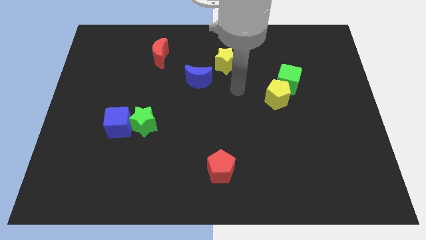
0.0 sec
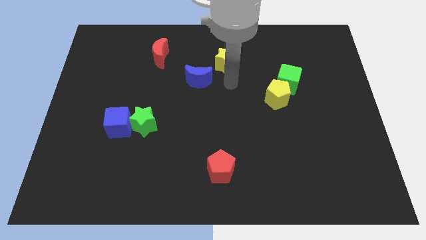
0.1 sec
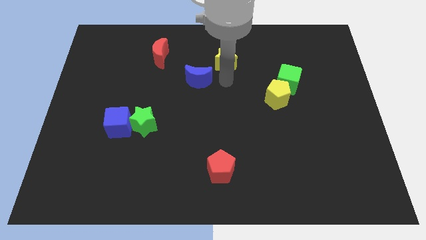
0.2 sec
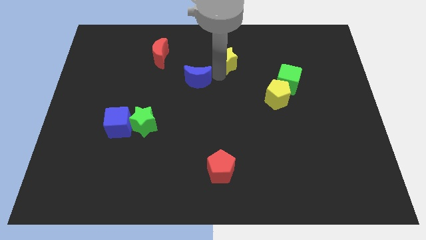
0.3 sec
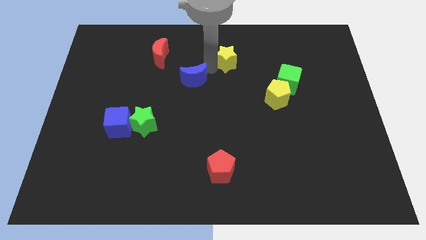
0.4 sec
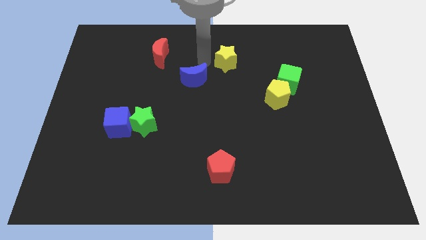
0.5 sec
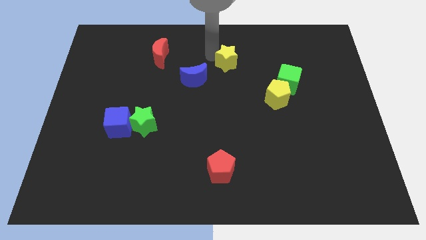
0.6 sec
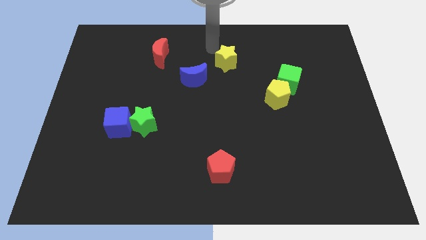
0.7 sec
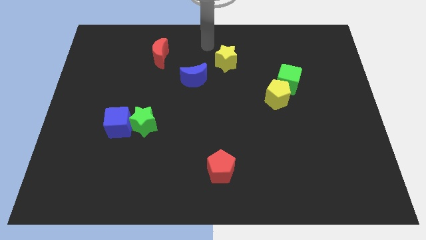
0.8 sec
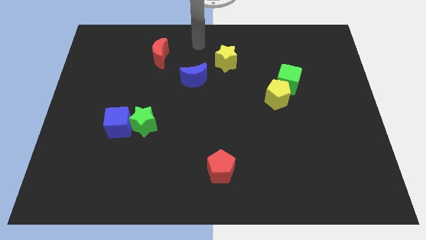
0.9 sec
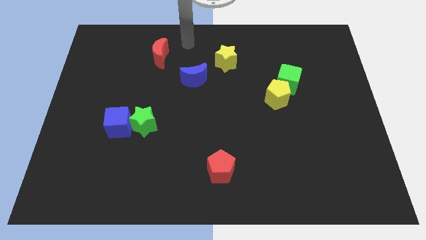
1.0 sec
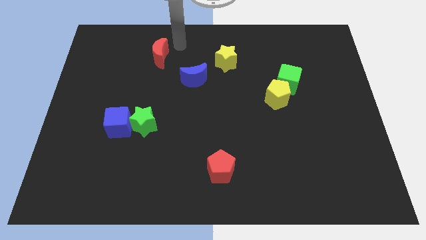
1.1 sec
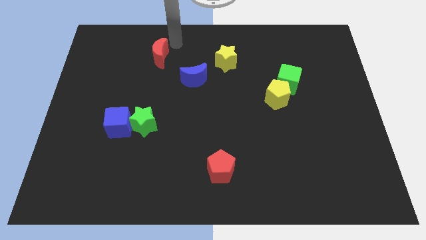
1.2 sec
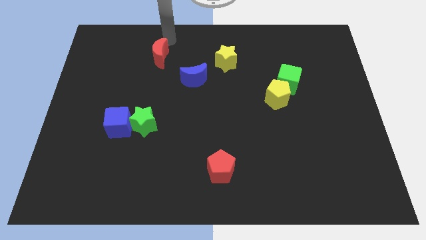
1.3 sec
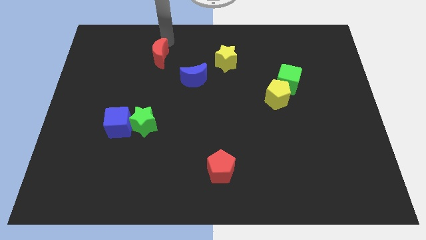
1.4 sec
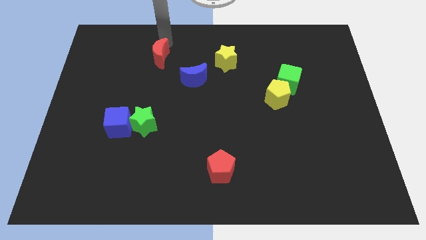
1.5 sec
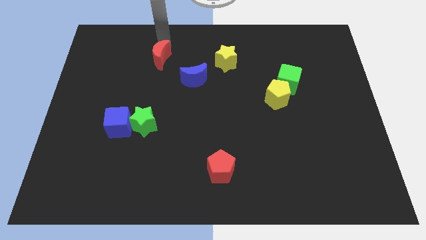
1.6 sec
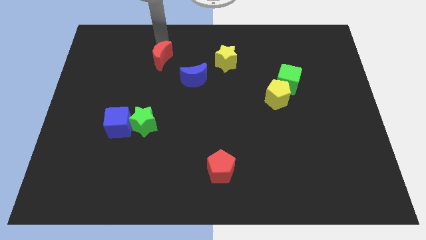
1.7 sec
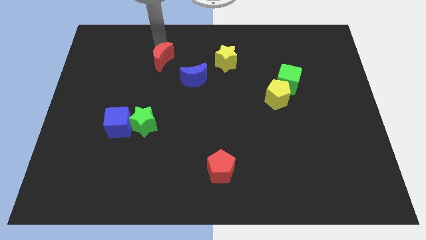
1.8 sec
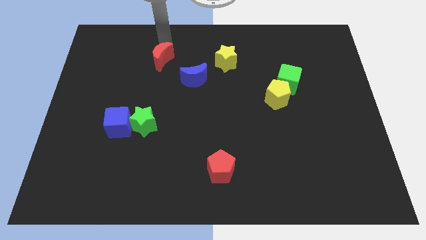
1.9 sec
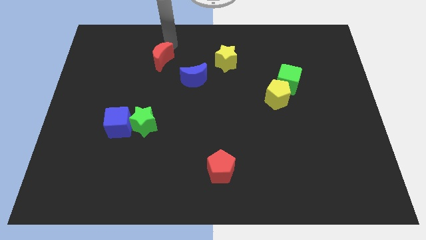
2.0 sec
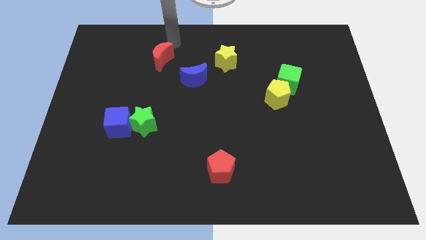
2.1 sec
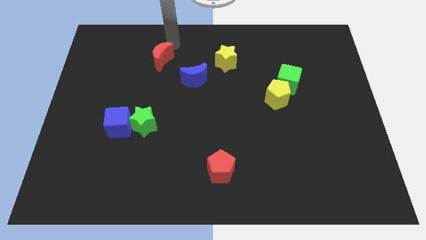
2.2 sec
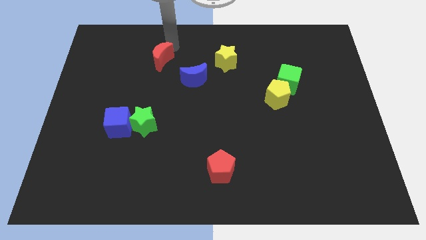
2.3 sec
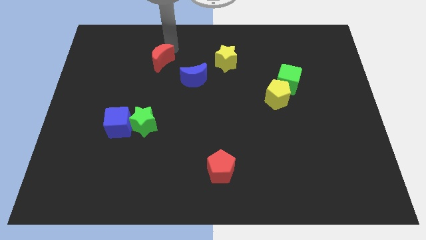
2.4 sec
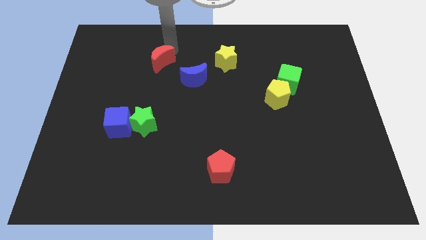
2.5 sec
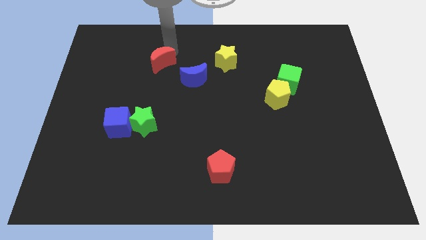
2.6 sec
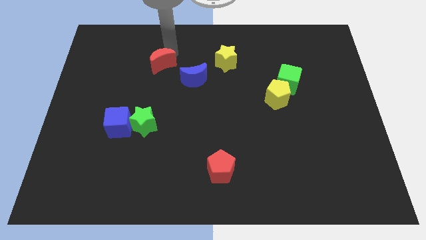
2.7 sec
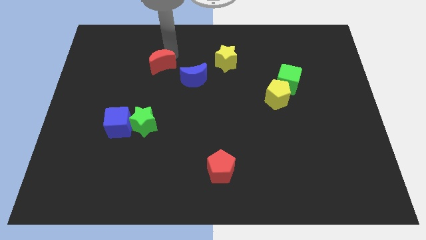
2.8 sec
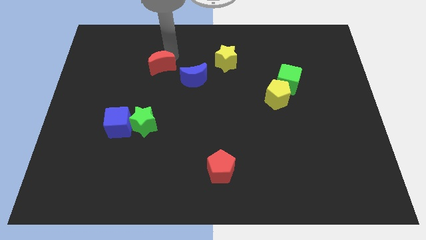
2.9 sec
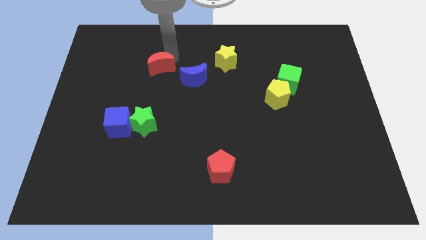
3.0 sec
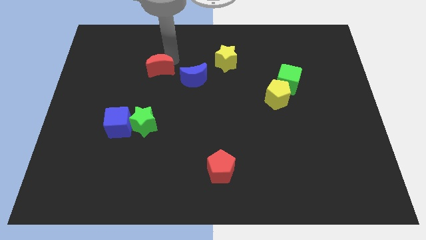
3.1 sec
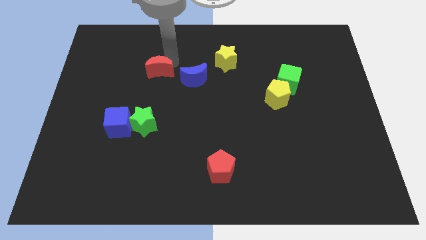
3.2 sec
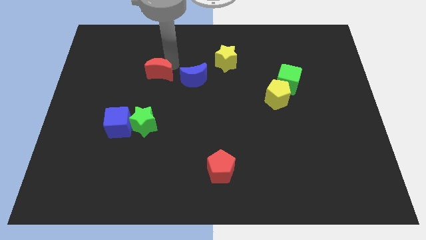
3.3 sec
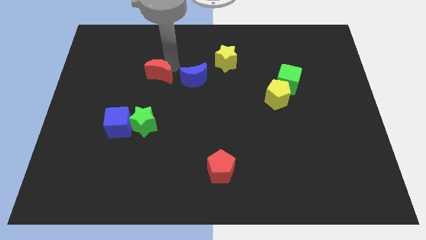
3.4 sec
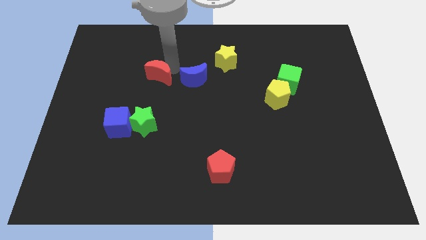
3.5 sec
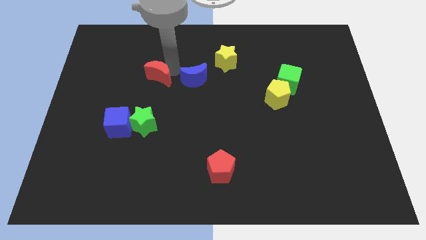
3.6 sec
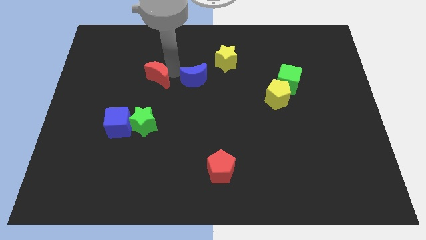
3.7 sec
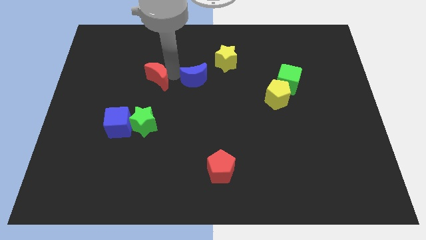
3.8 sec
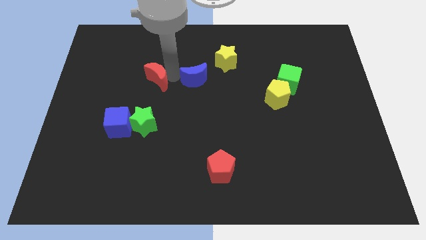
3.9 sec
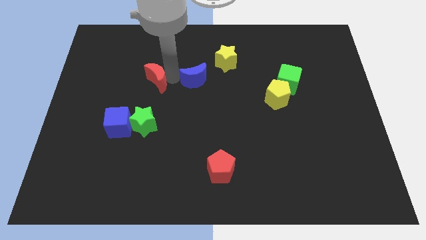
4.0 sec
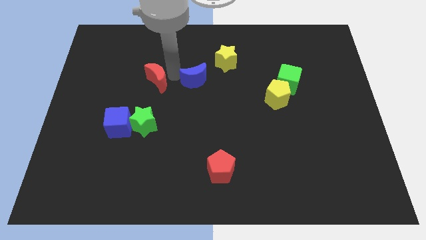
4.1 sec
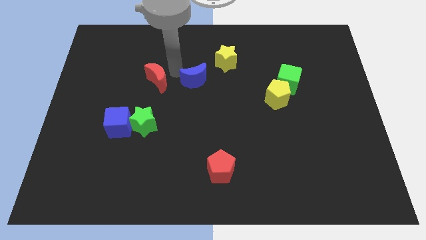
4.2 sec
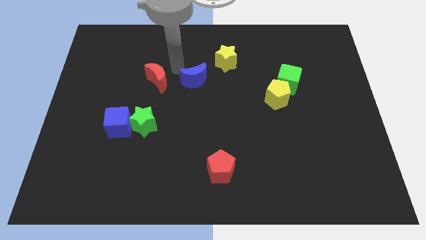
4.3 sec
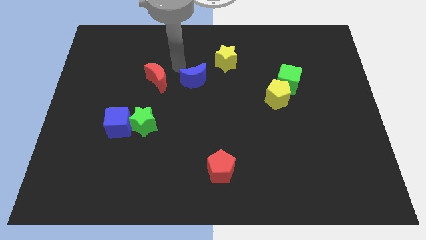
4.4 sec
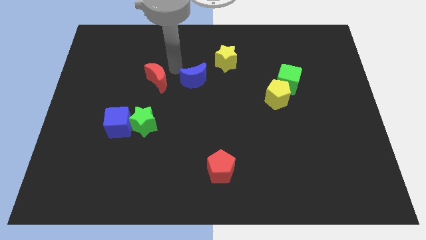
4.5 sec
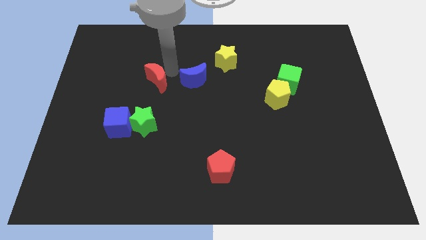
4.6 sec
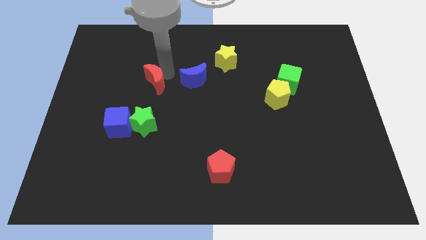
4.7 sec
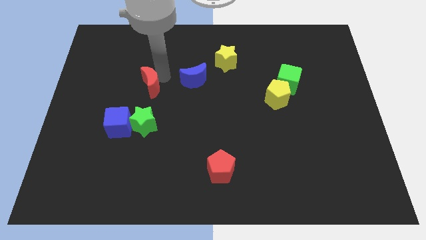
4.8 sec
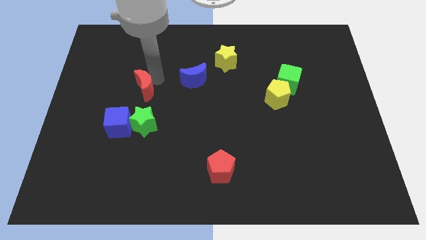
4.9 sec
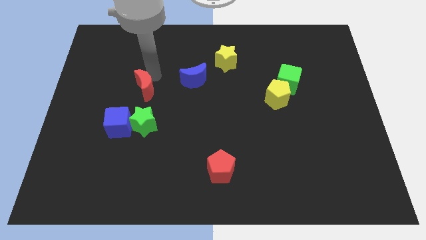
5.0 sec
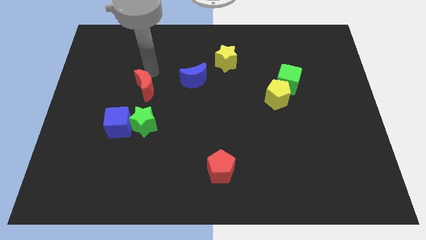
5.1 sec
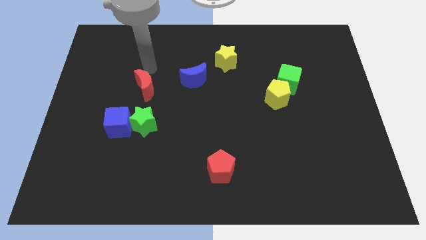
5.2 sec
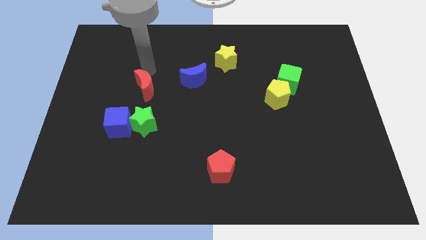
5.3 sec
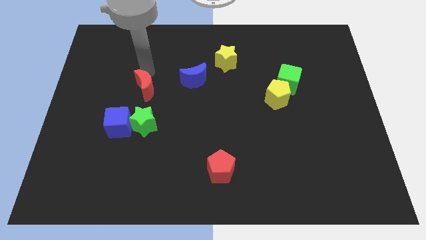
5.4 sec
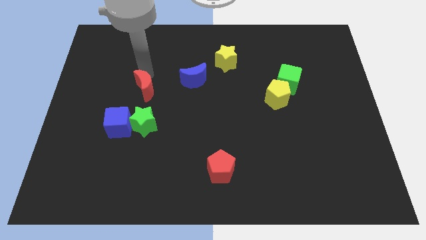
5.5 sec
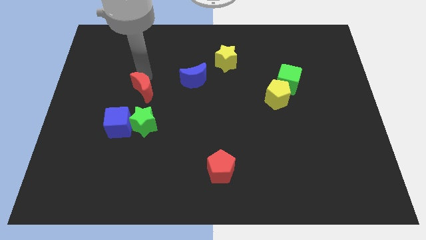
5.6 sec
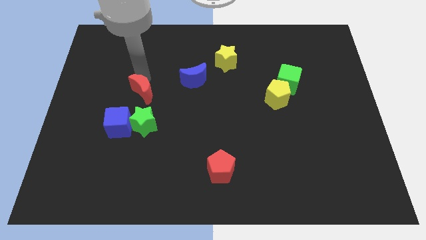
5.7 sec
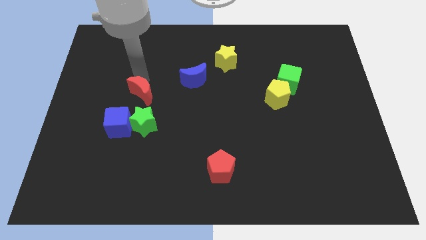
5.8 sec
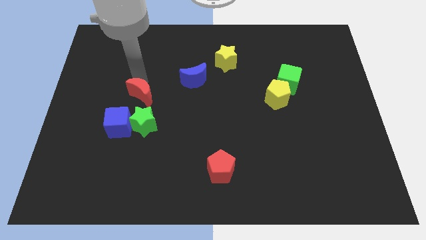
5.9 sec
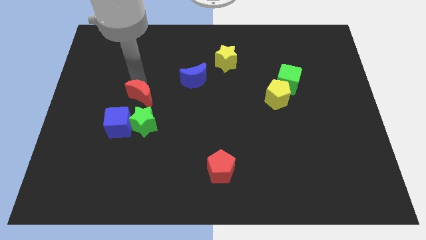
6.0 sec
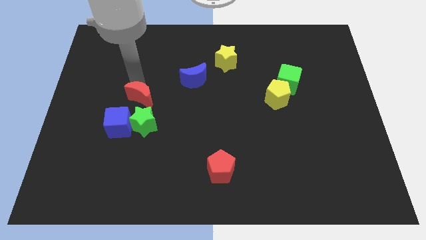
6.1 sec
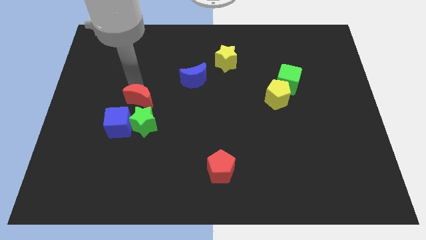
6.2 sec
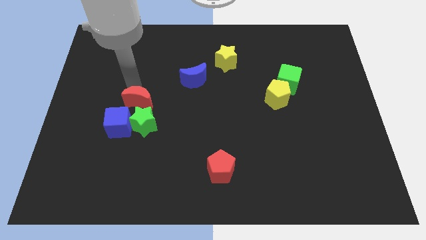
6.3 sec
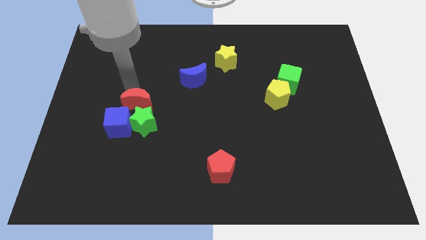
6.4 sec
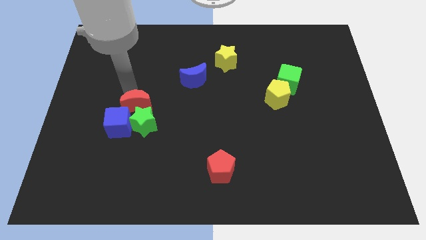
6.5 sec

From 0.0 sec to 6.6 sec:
move the red moon towards the green star
